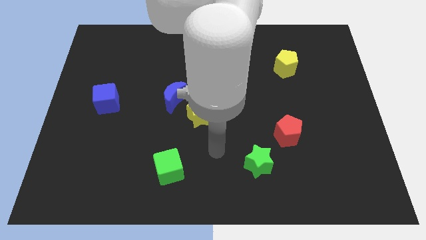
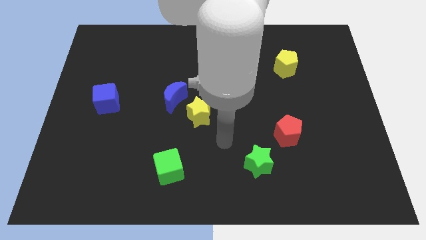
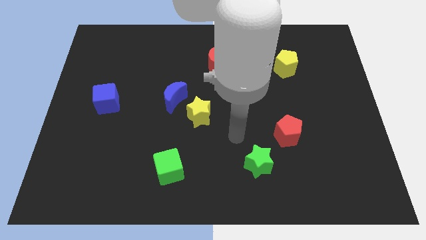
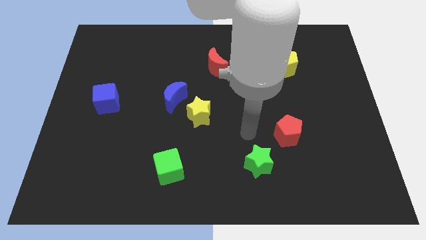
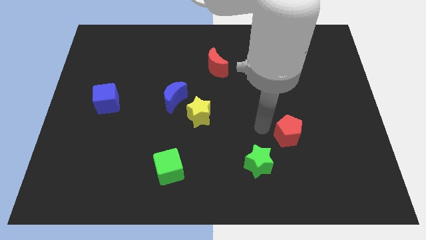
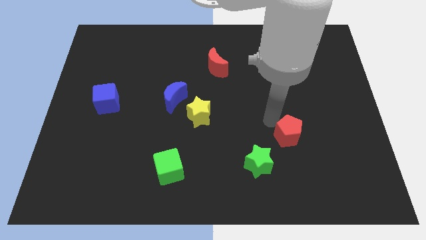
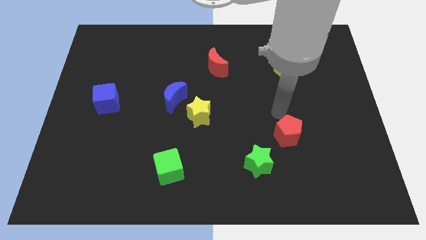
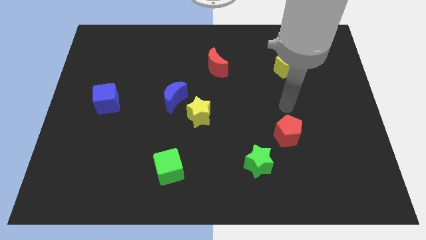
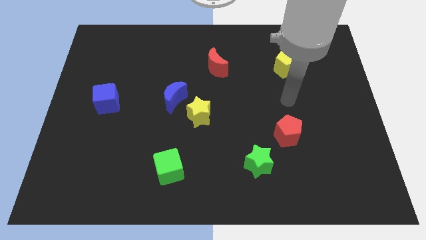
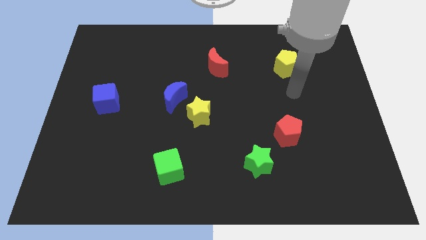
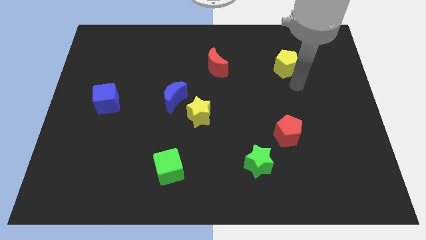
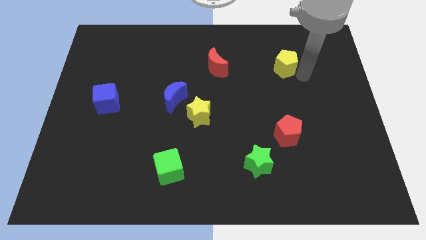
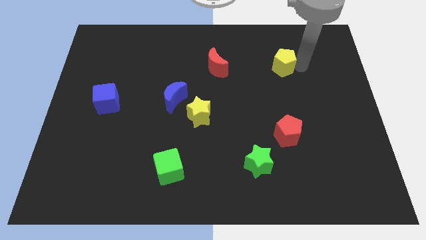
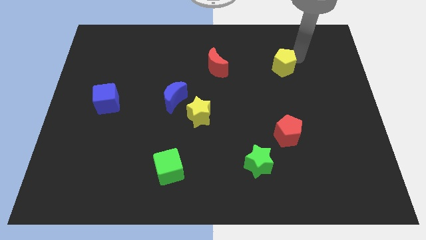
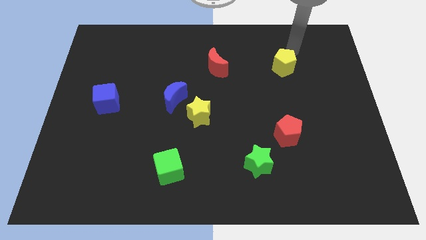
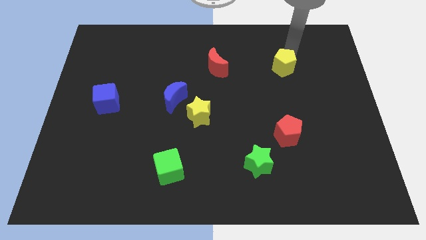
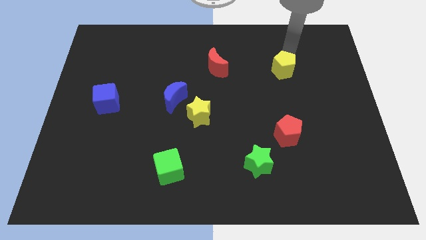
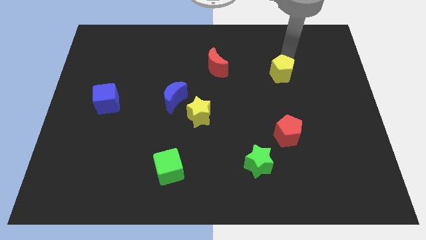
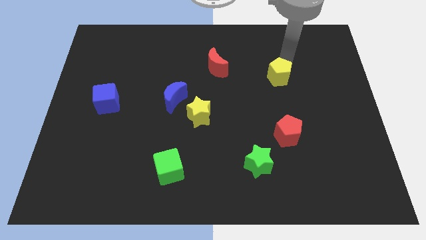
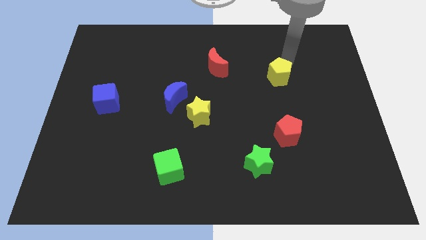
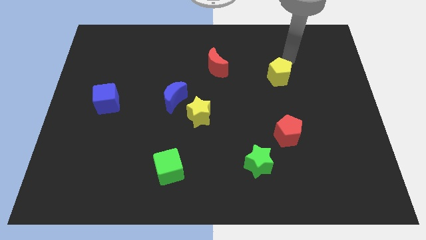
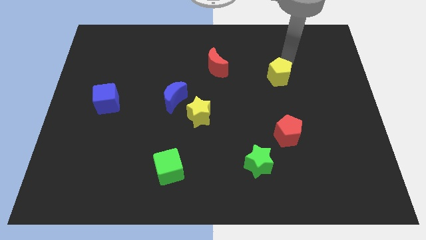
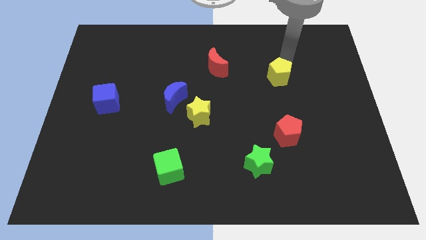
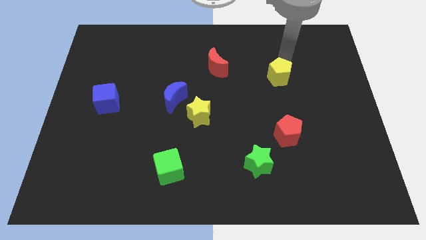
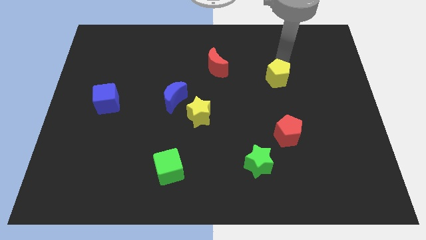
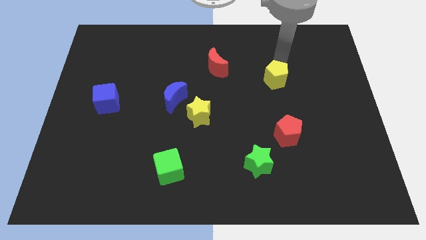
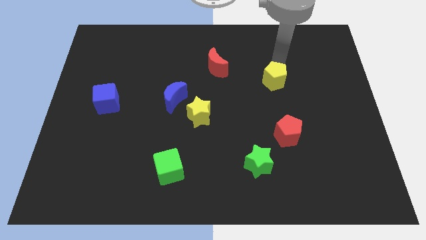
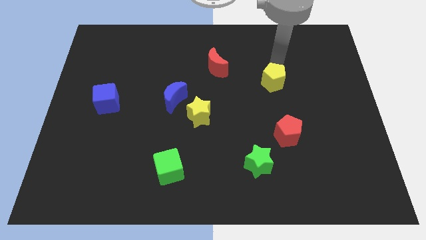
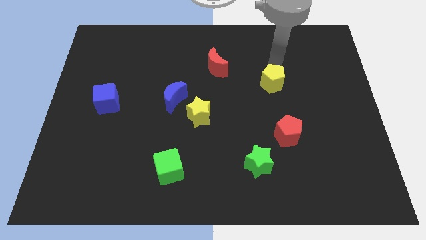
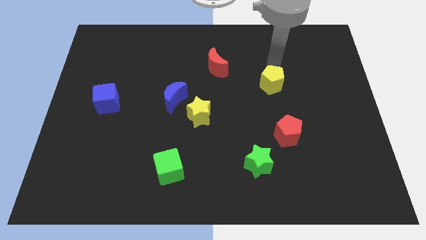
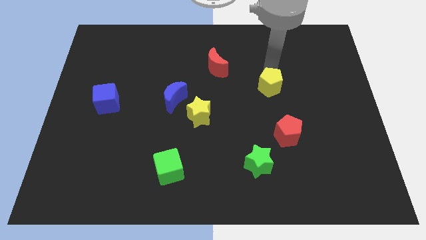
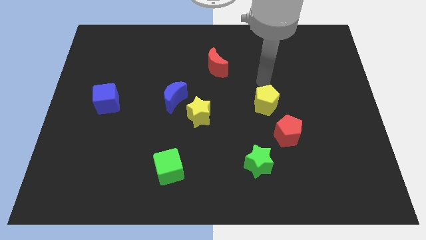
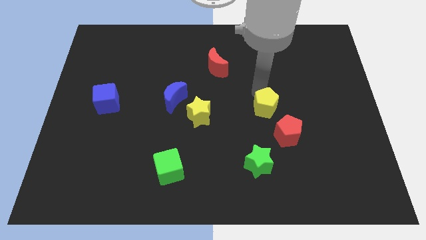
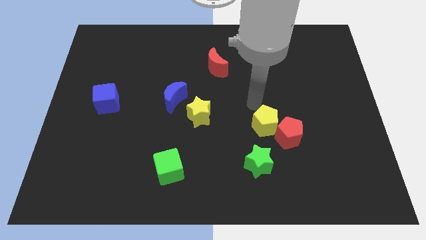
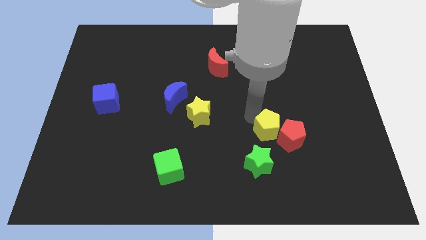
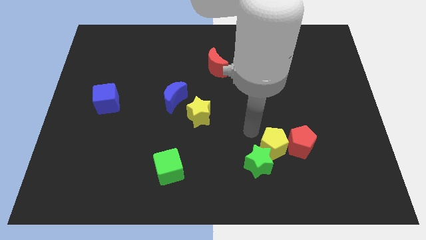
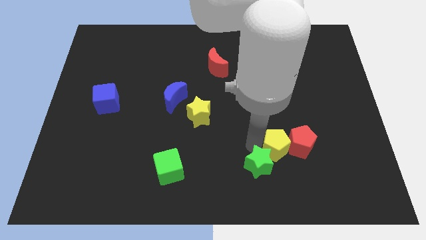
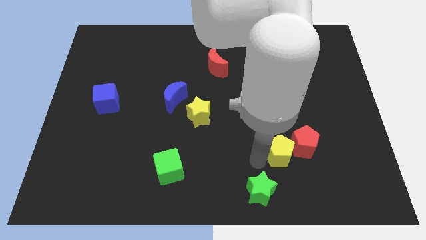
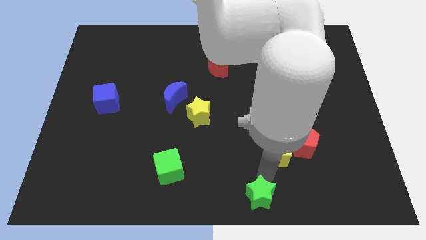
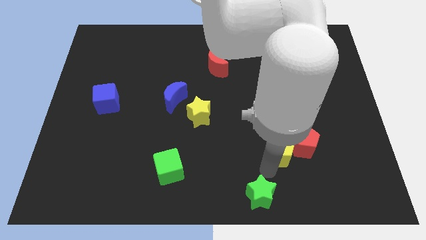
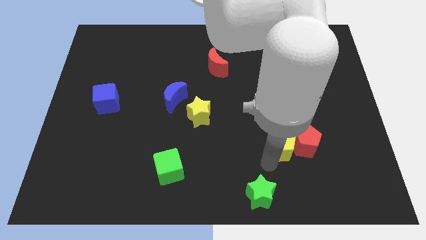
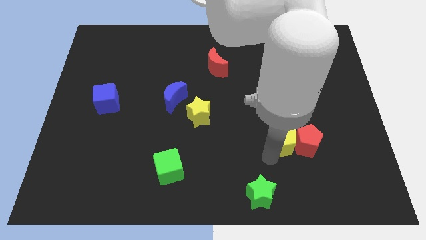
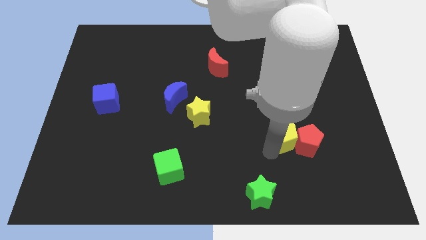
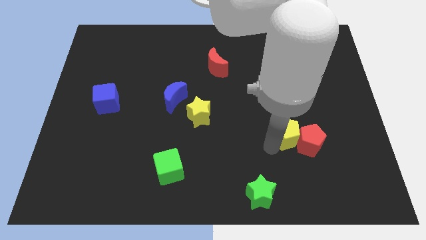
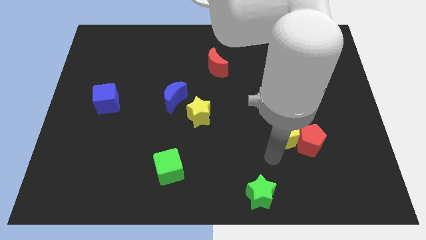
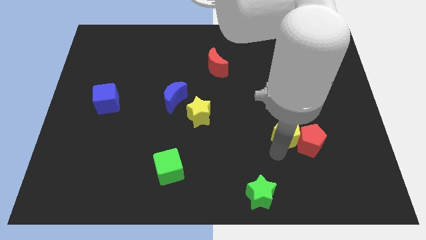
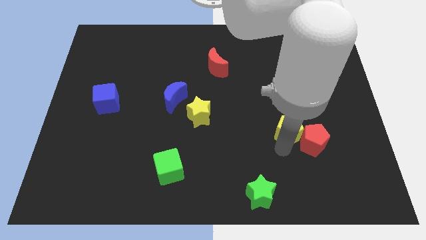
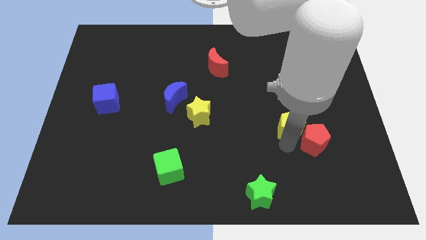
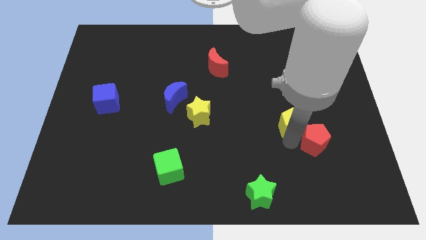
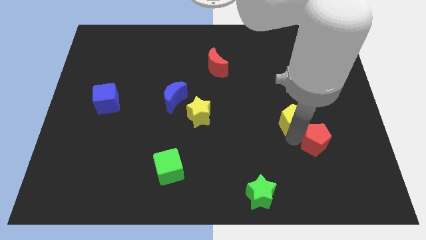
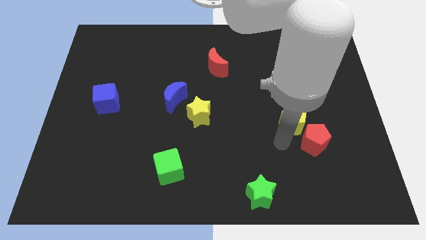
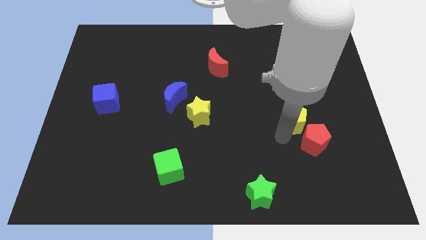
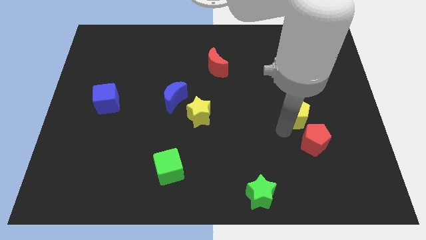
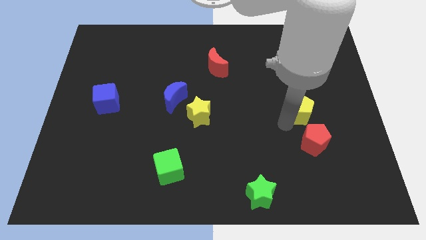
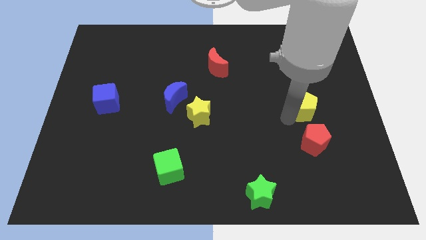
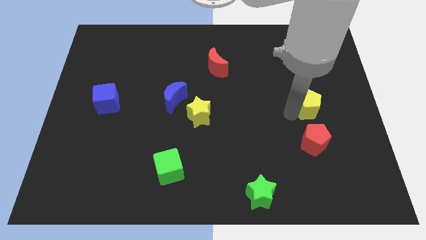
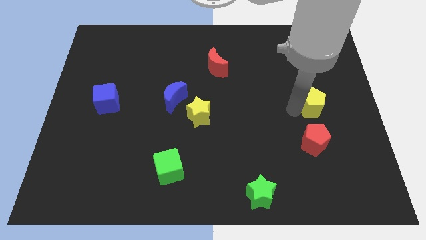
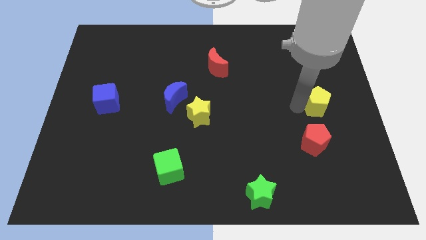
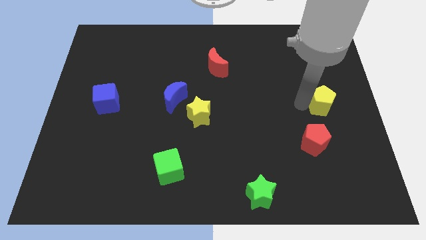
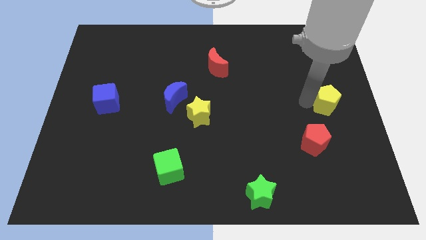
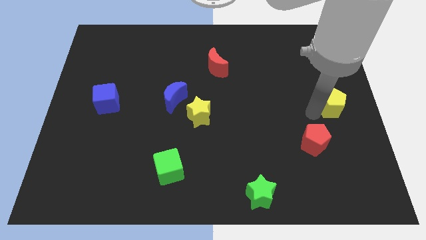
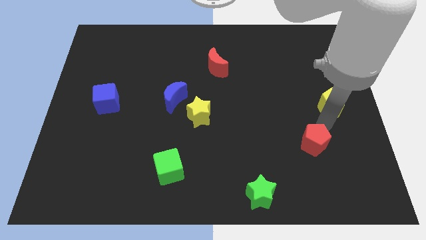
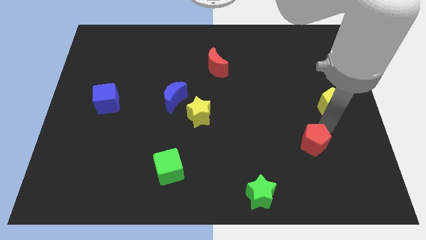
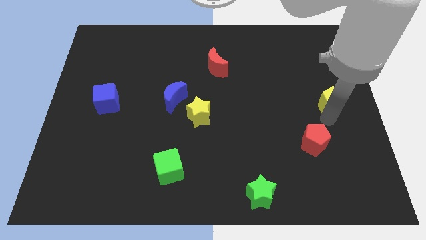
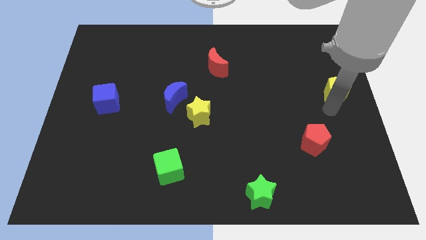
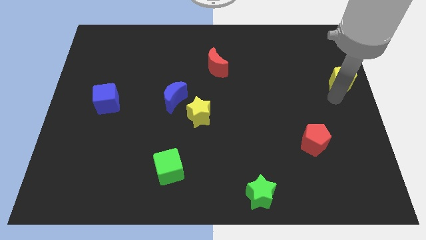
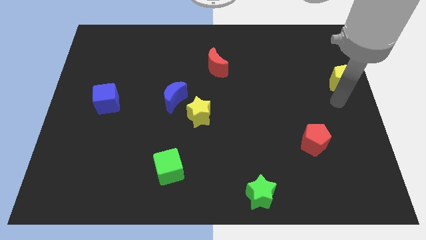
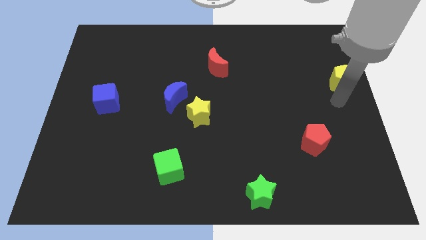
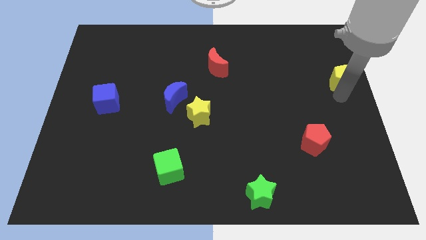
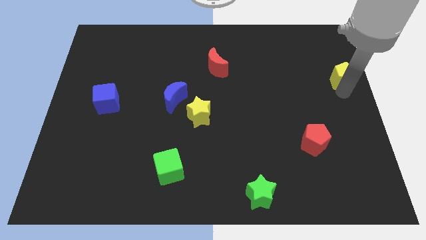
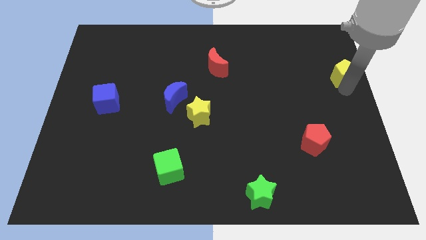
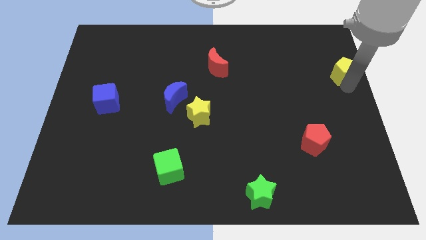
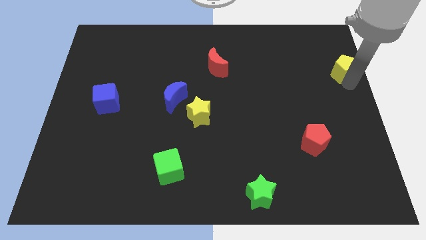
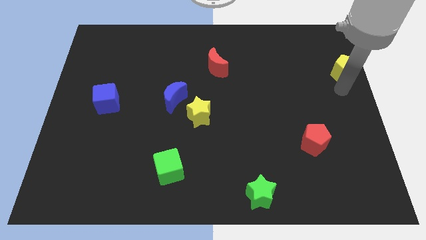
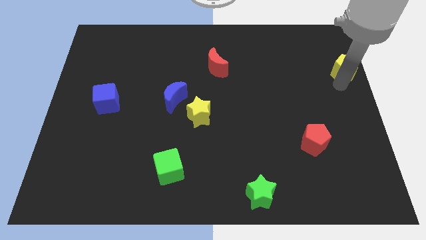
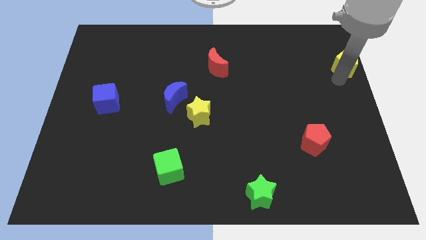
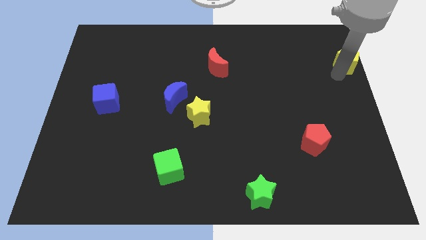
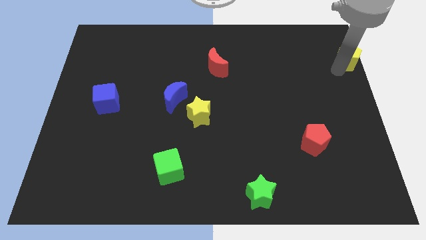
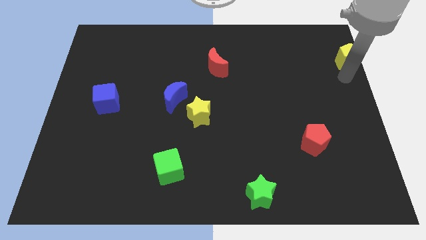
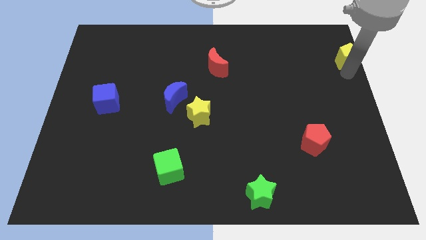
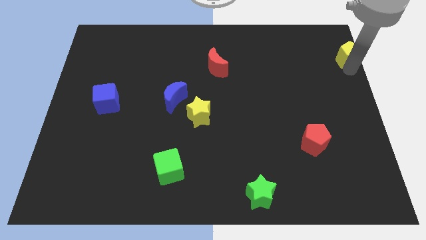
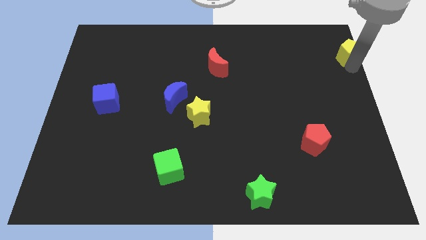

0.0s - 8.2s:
slide the yellow pentagon to the top right
